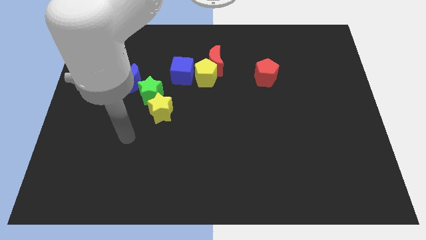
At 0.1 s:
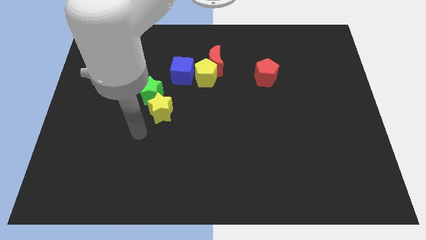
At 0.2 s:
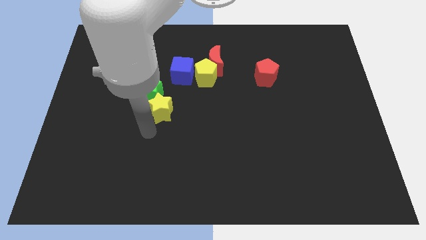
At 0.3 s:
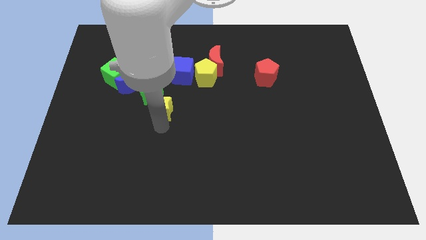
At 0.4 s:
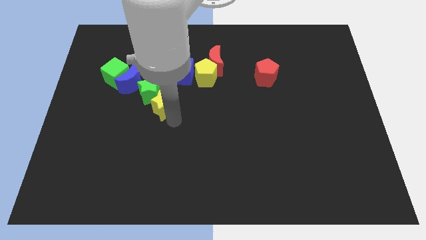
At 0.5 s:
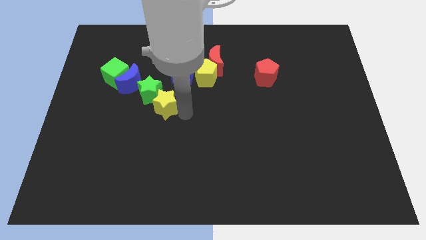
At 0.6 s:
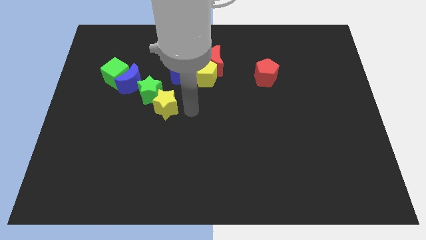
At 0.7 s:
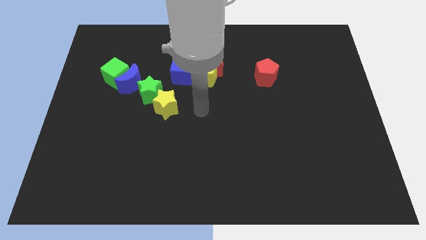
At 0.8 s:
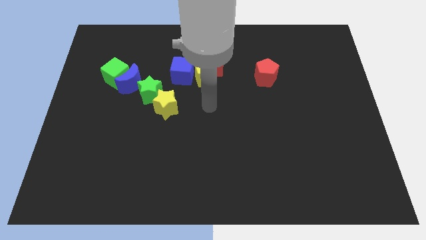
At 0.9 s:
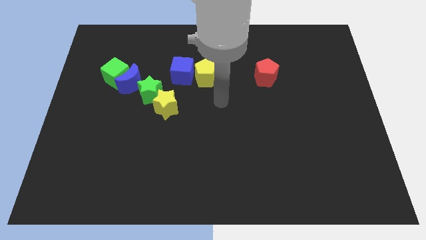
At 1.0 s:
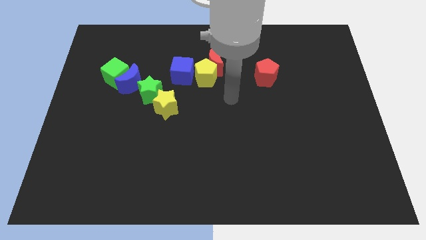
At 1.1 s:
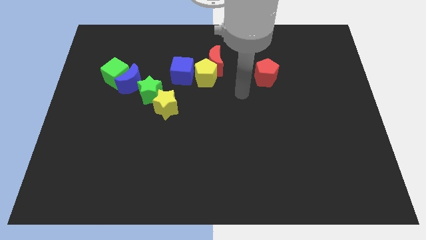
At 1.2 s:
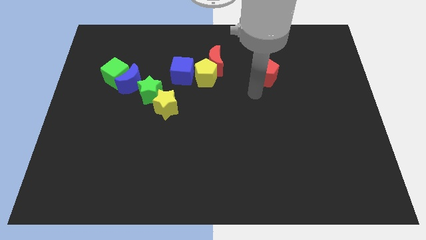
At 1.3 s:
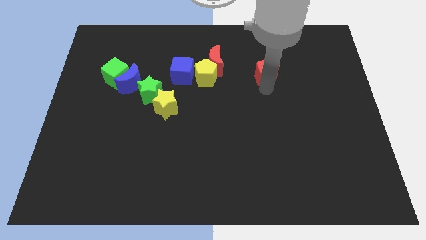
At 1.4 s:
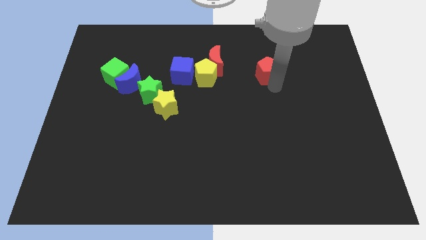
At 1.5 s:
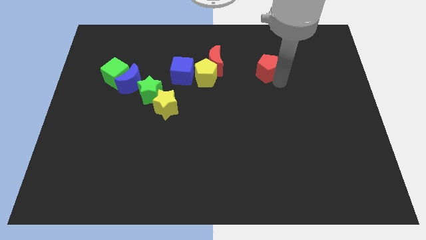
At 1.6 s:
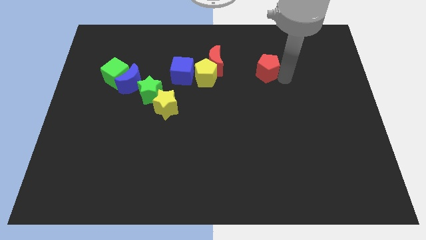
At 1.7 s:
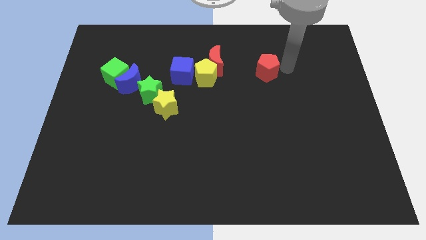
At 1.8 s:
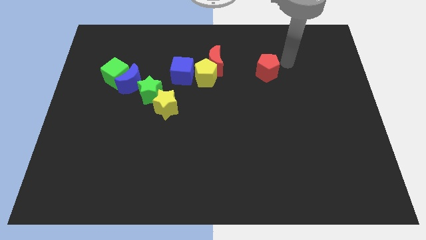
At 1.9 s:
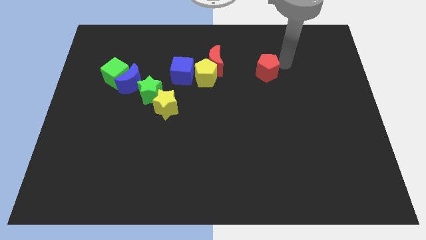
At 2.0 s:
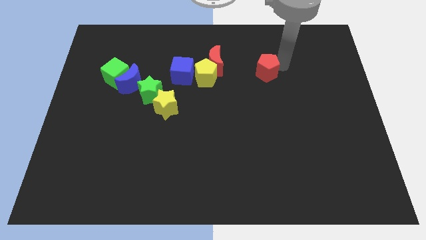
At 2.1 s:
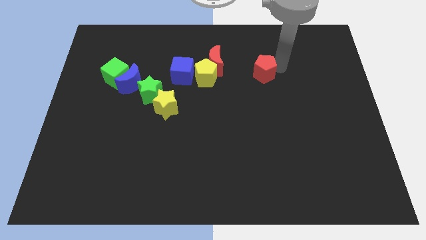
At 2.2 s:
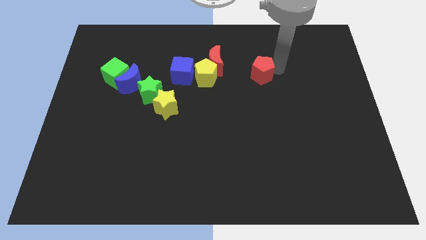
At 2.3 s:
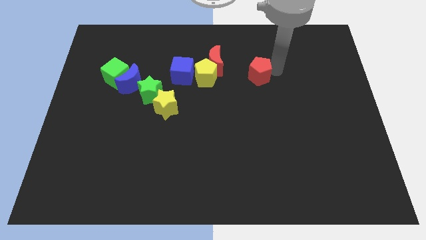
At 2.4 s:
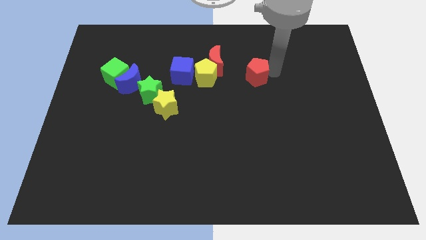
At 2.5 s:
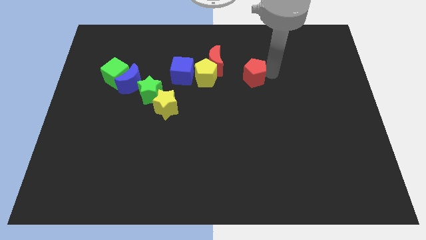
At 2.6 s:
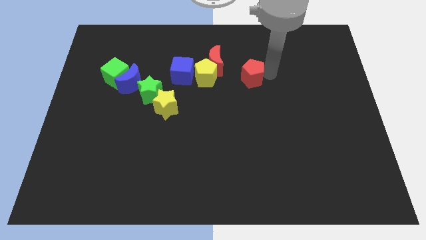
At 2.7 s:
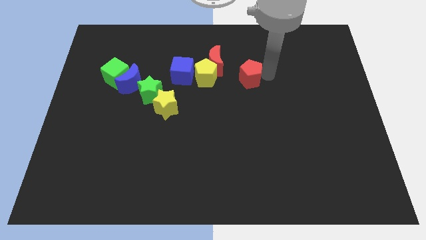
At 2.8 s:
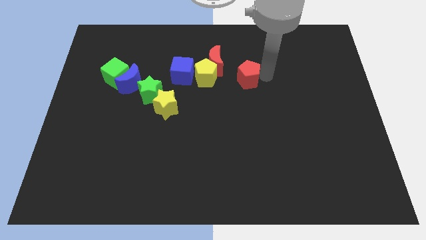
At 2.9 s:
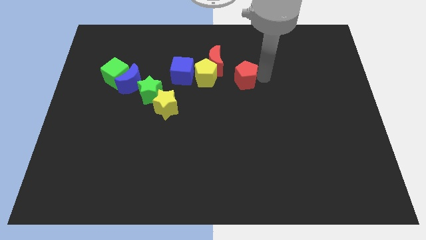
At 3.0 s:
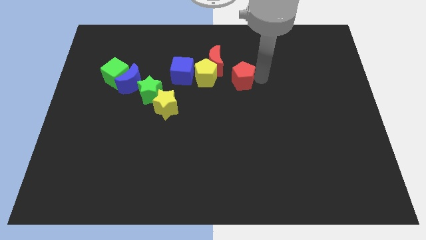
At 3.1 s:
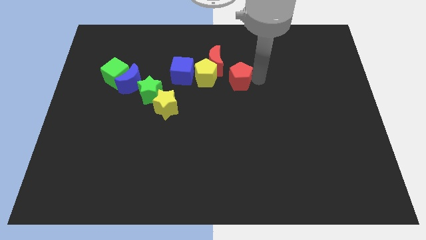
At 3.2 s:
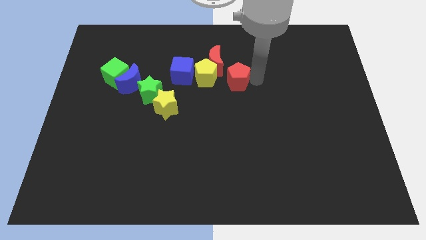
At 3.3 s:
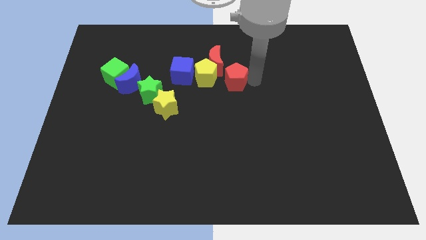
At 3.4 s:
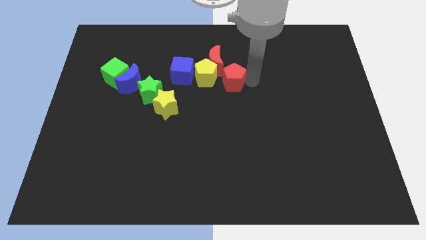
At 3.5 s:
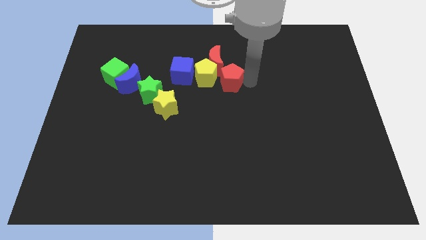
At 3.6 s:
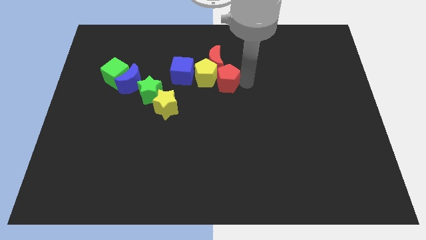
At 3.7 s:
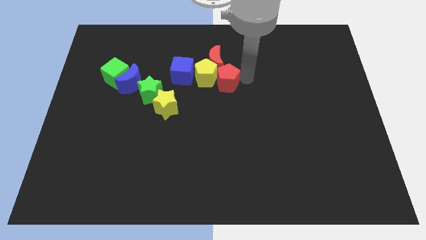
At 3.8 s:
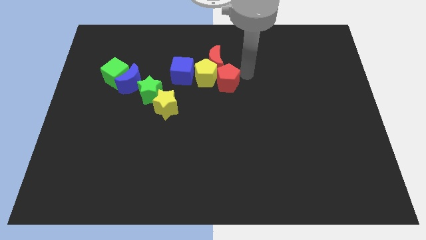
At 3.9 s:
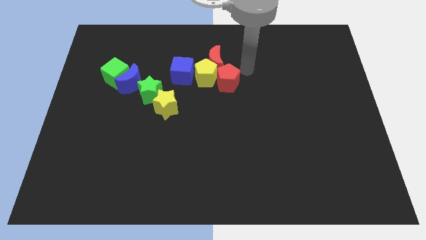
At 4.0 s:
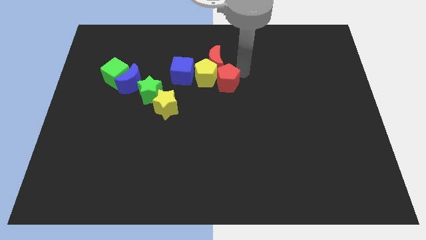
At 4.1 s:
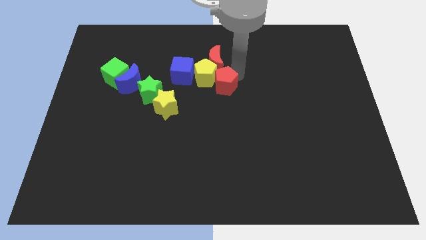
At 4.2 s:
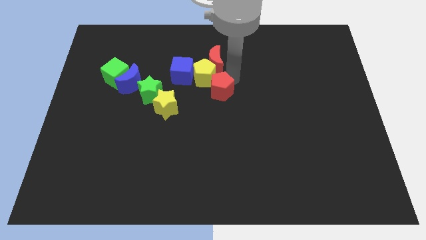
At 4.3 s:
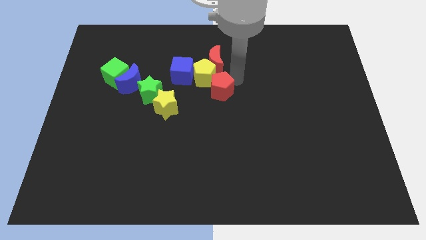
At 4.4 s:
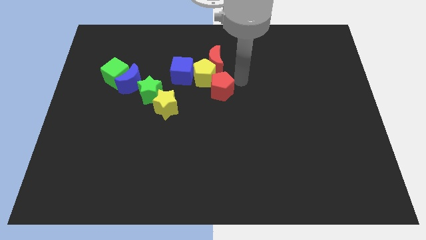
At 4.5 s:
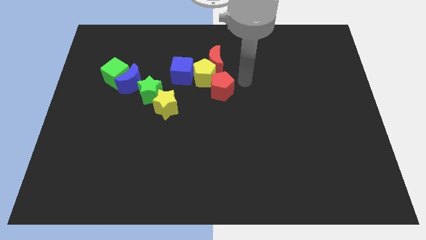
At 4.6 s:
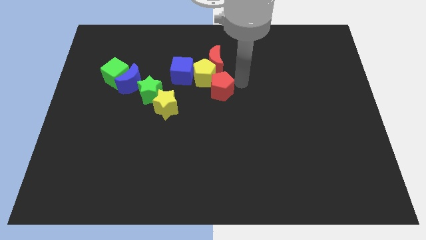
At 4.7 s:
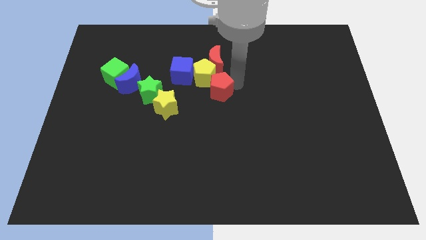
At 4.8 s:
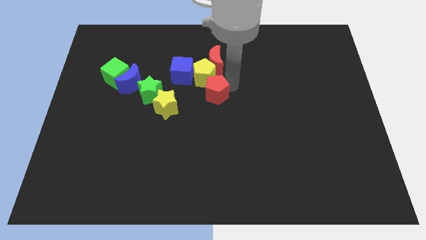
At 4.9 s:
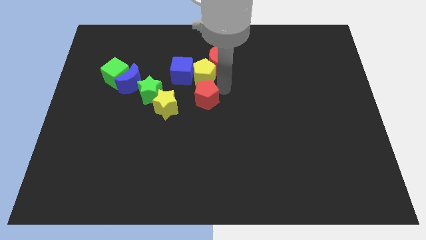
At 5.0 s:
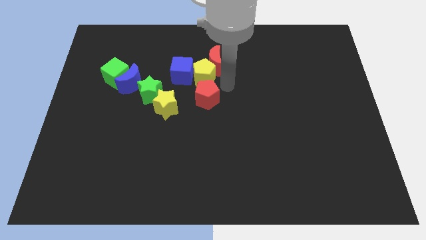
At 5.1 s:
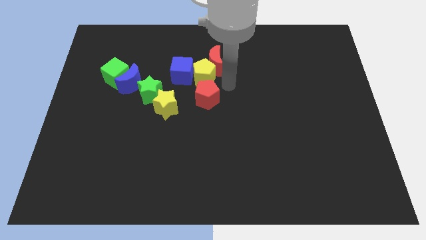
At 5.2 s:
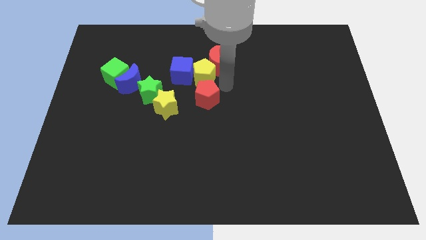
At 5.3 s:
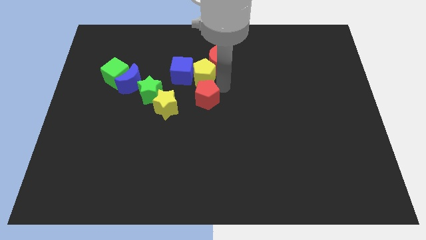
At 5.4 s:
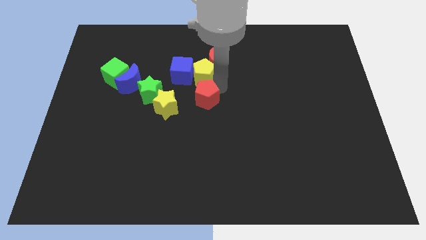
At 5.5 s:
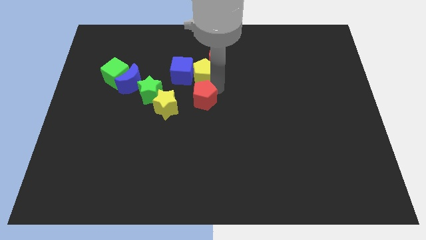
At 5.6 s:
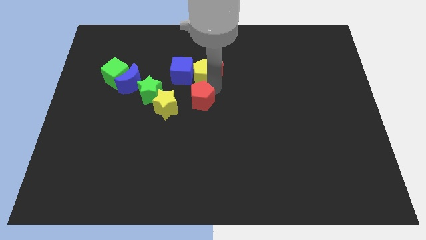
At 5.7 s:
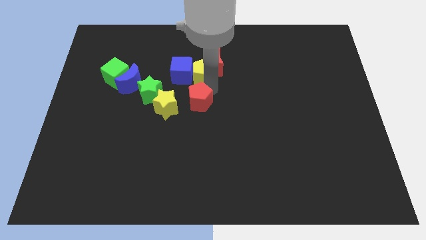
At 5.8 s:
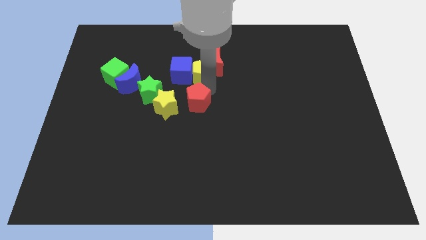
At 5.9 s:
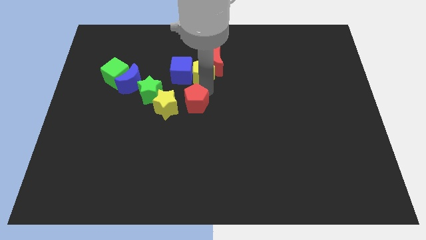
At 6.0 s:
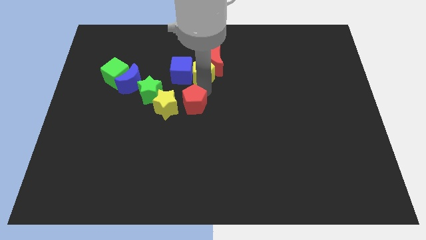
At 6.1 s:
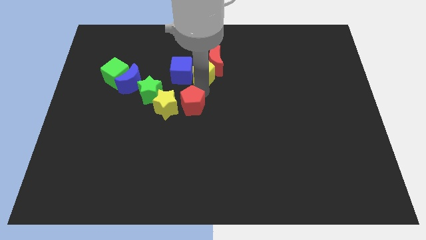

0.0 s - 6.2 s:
put the red pentagon towards the yellow star

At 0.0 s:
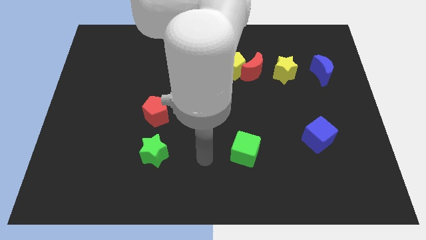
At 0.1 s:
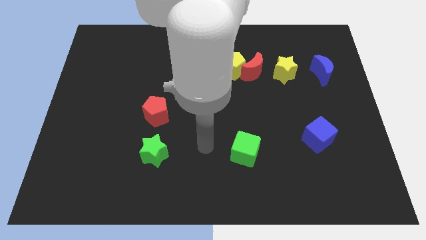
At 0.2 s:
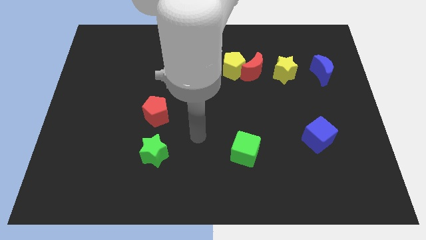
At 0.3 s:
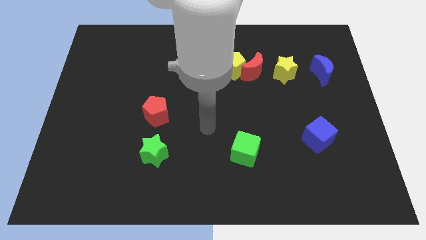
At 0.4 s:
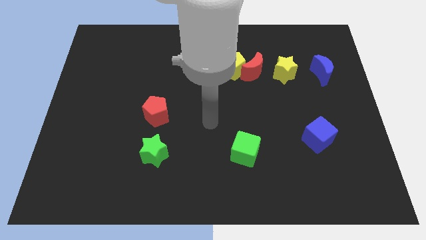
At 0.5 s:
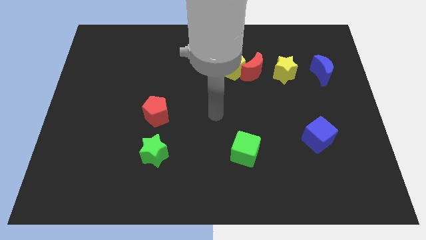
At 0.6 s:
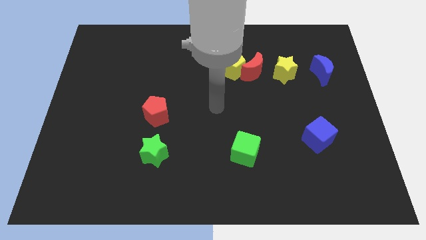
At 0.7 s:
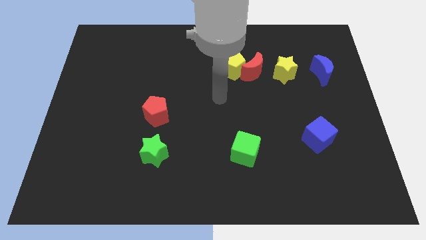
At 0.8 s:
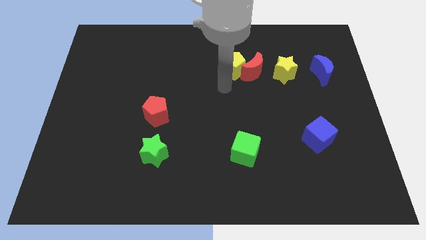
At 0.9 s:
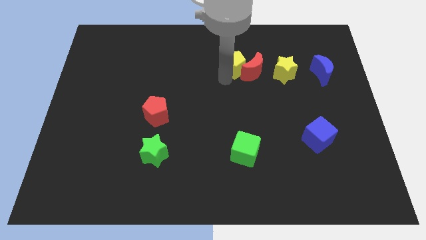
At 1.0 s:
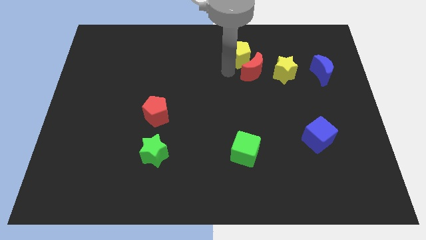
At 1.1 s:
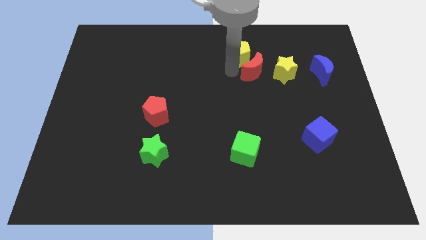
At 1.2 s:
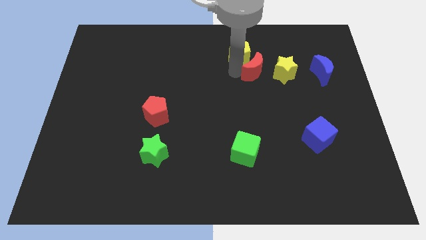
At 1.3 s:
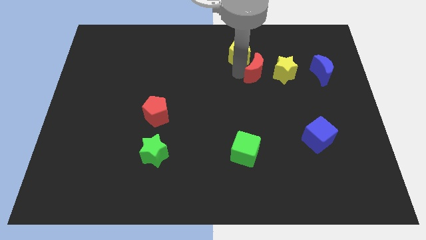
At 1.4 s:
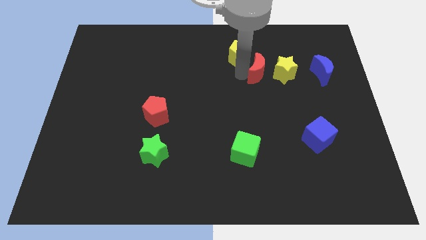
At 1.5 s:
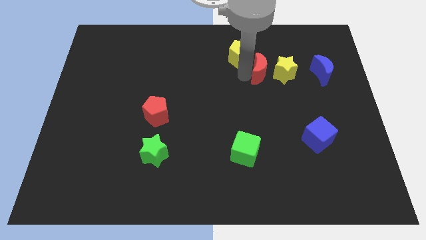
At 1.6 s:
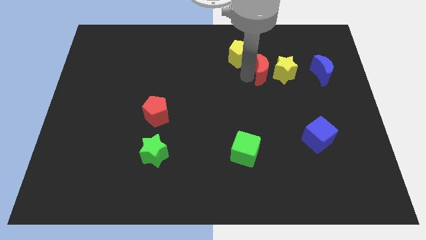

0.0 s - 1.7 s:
slide the red moon close to the yellow star

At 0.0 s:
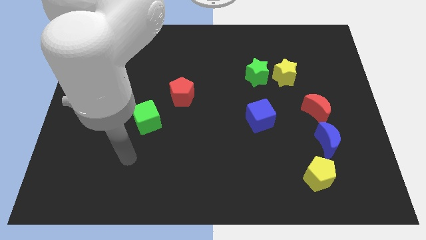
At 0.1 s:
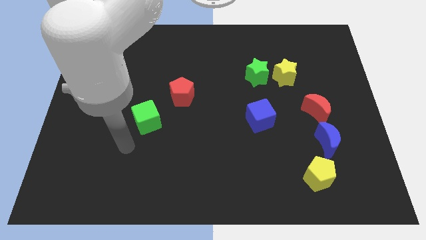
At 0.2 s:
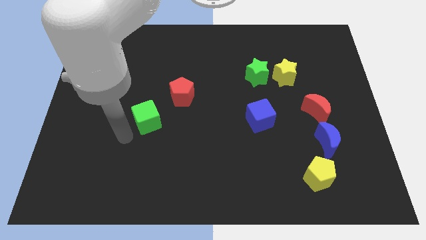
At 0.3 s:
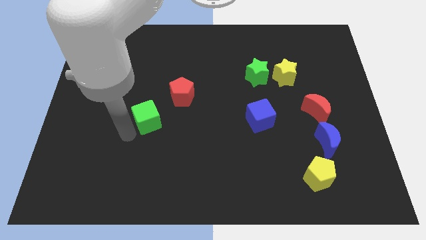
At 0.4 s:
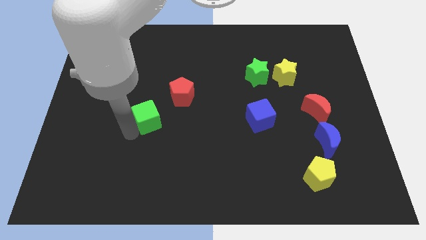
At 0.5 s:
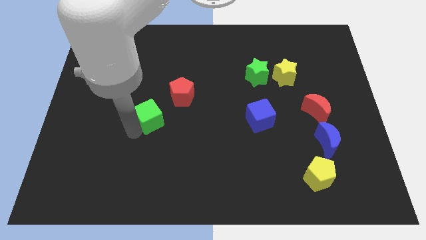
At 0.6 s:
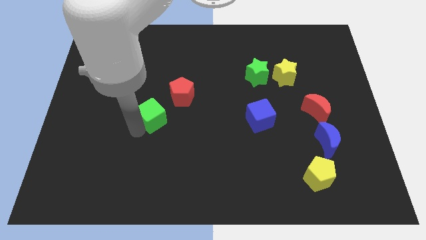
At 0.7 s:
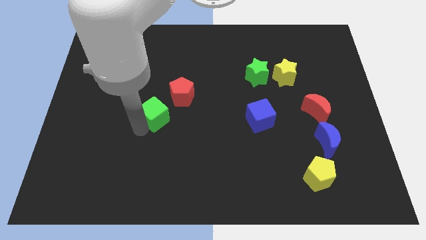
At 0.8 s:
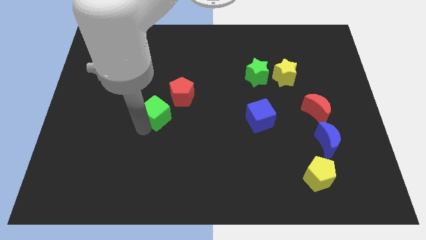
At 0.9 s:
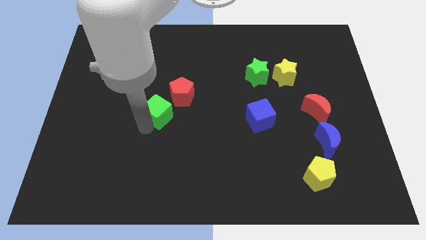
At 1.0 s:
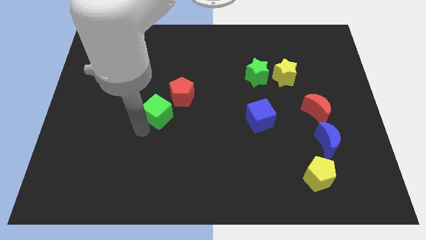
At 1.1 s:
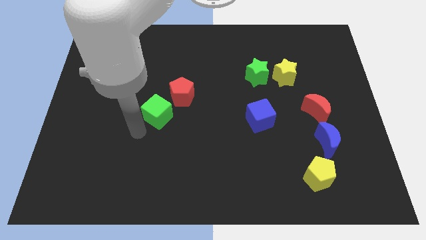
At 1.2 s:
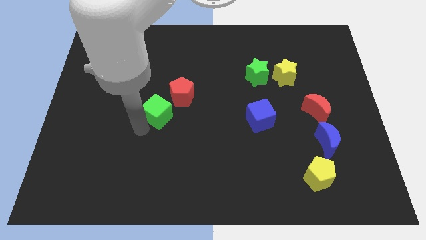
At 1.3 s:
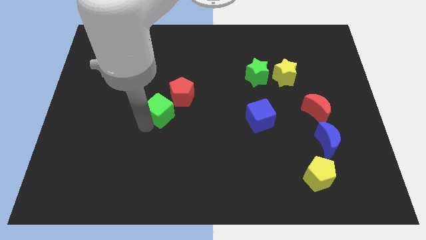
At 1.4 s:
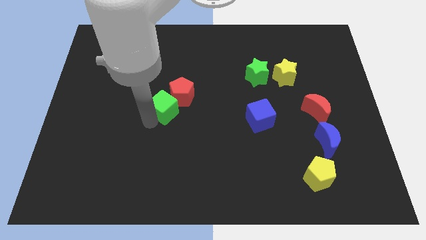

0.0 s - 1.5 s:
put the green cube next to the red pentagon
